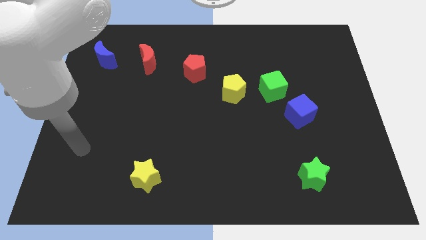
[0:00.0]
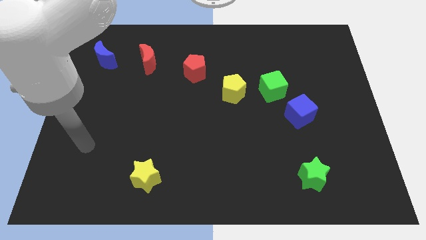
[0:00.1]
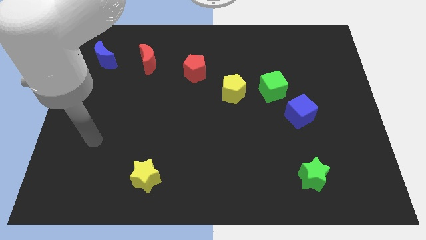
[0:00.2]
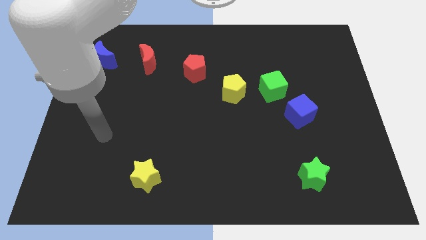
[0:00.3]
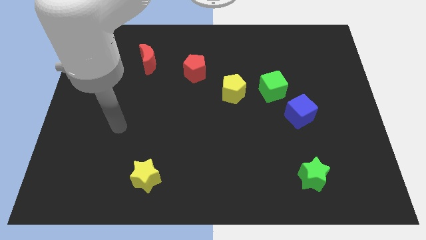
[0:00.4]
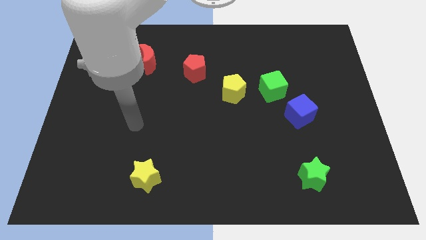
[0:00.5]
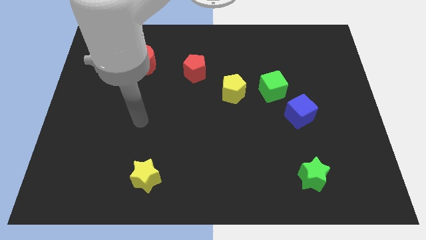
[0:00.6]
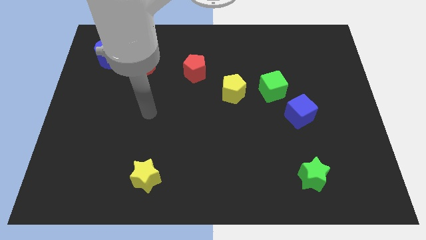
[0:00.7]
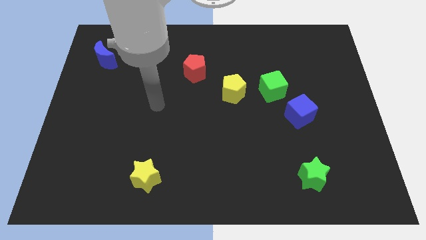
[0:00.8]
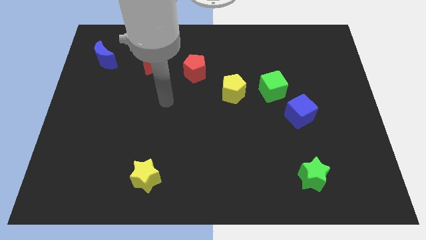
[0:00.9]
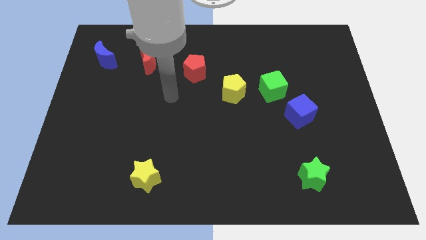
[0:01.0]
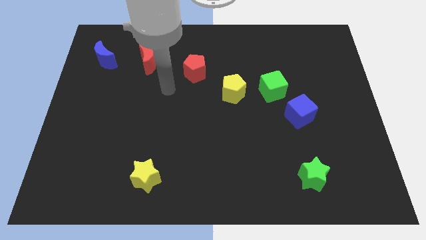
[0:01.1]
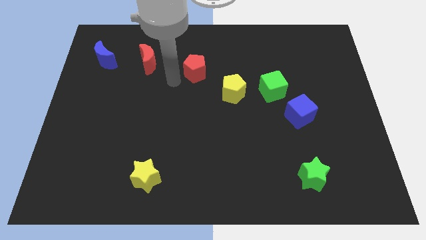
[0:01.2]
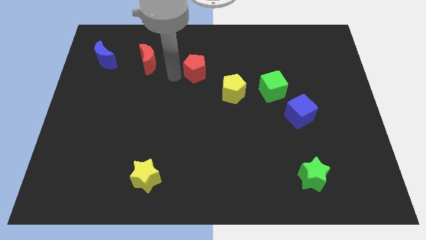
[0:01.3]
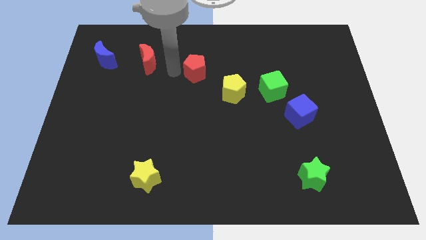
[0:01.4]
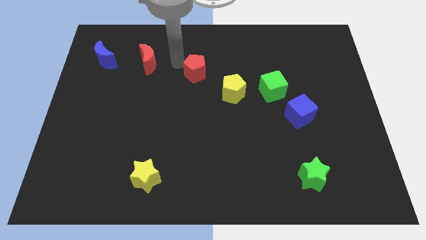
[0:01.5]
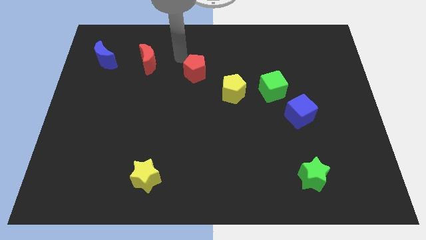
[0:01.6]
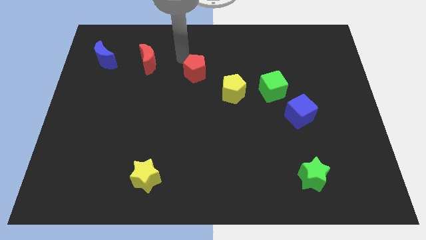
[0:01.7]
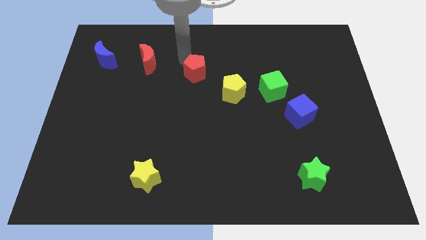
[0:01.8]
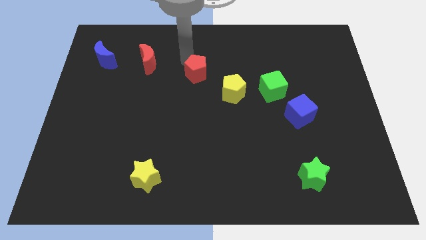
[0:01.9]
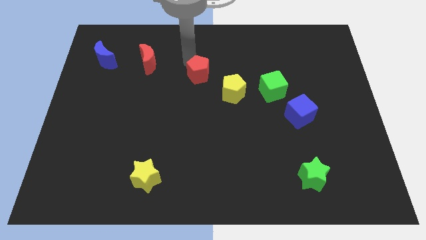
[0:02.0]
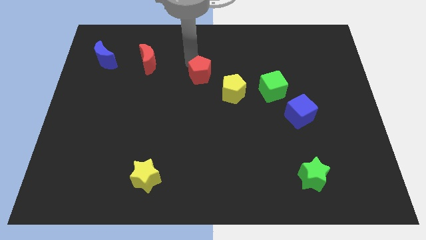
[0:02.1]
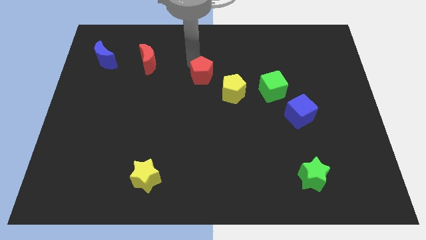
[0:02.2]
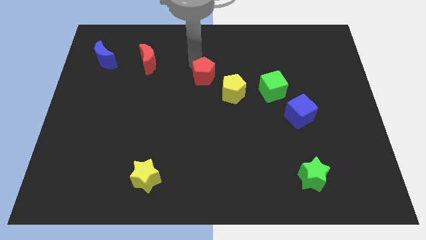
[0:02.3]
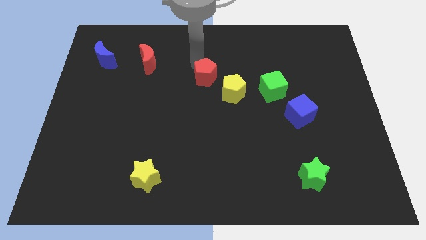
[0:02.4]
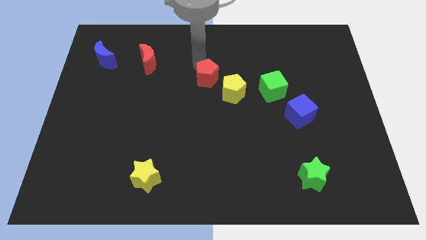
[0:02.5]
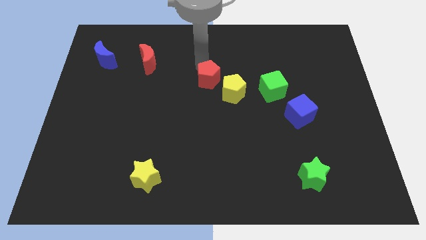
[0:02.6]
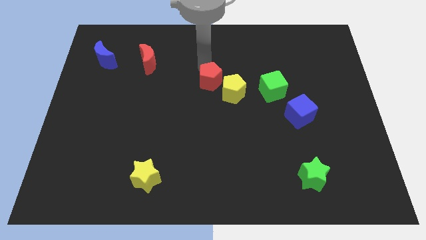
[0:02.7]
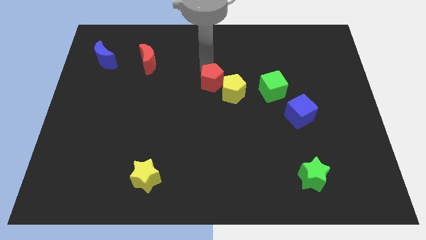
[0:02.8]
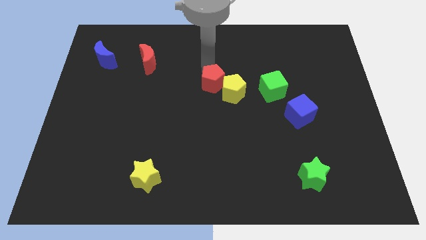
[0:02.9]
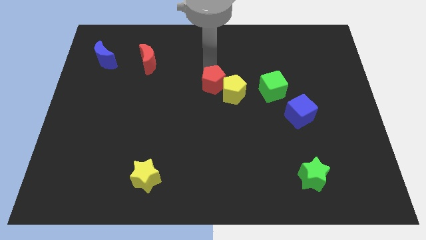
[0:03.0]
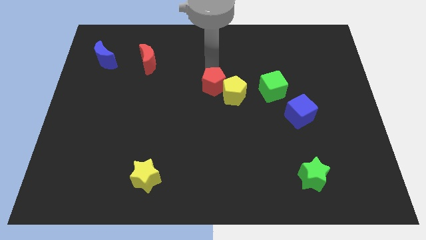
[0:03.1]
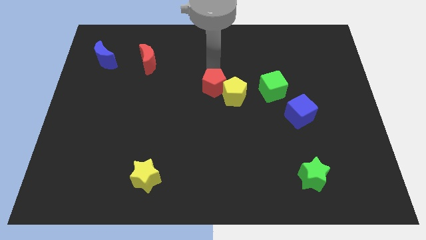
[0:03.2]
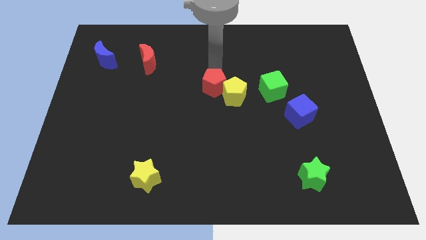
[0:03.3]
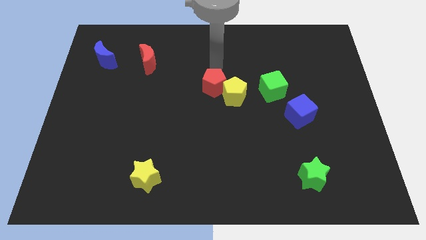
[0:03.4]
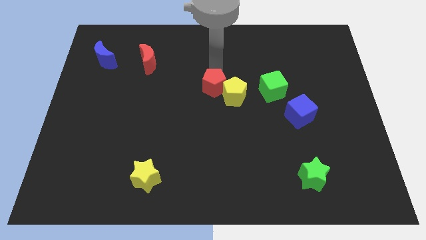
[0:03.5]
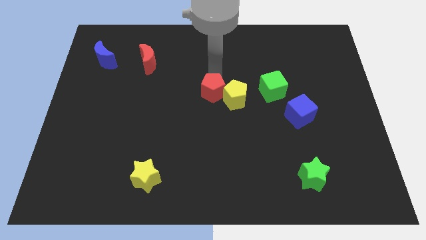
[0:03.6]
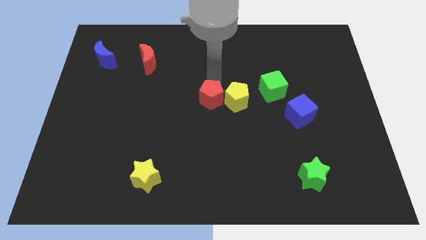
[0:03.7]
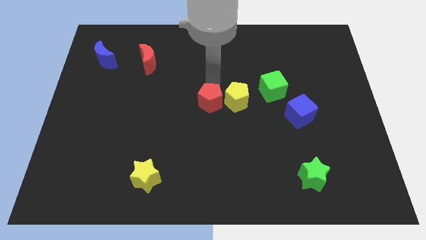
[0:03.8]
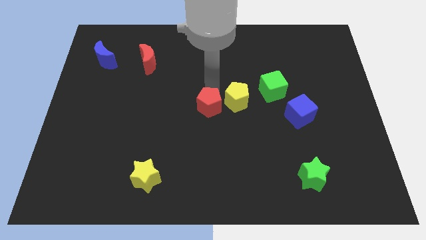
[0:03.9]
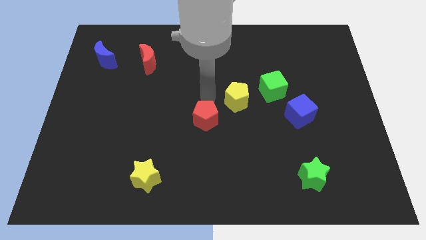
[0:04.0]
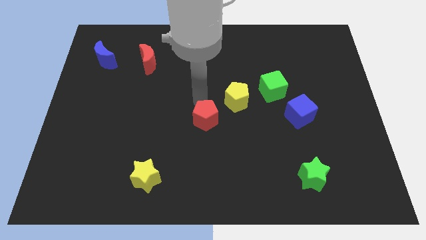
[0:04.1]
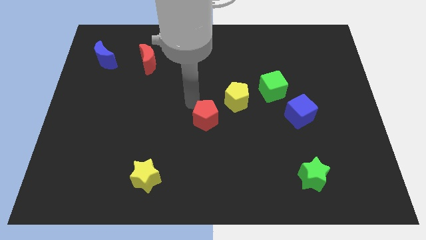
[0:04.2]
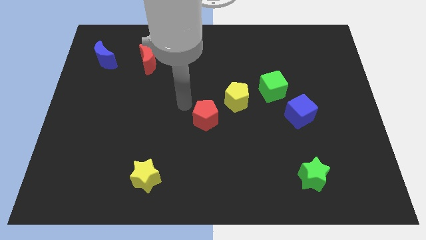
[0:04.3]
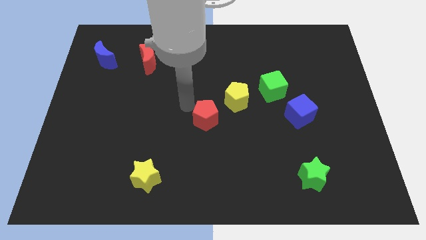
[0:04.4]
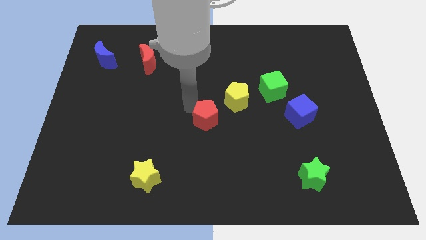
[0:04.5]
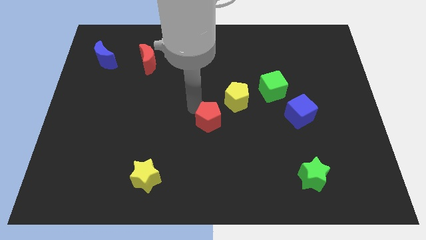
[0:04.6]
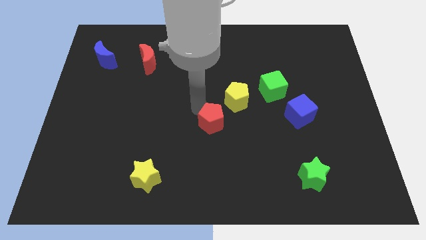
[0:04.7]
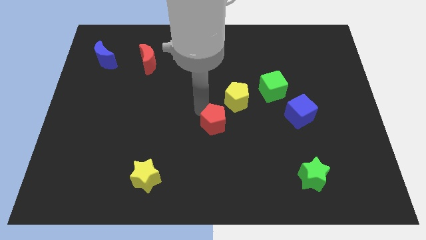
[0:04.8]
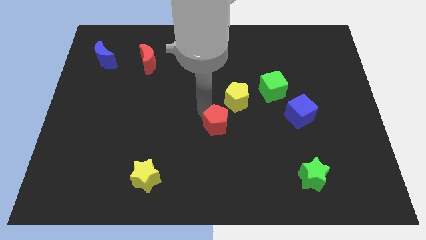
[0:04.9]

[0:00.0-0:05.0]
push the red pentagon below the yellow pentagon

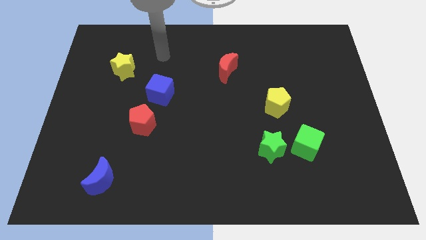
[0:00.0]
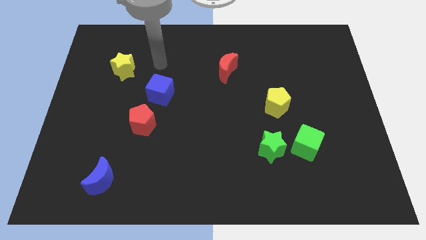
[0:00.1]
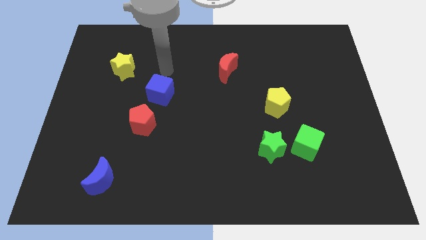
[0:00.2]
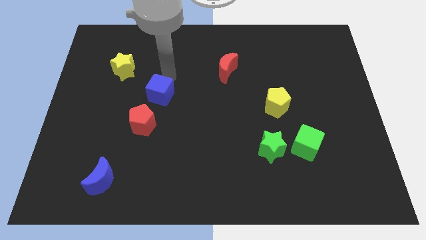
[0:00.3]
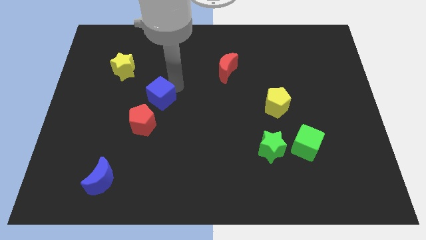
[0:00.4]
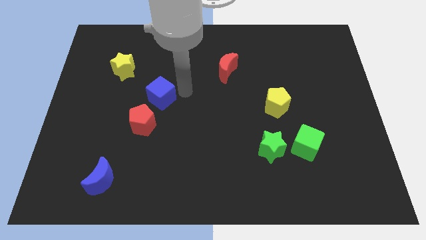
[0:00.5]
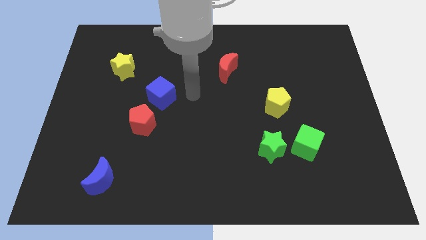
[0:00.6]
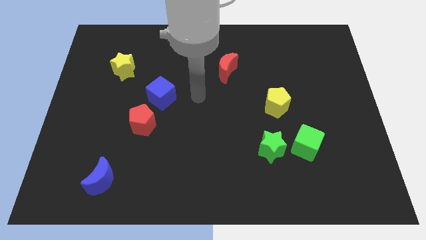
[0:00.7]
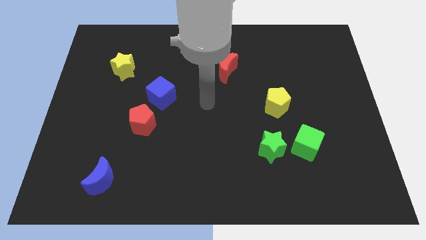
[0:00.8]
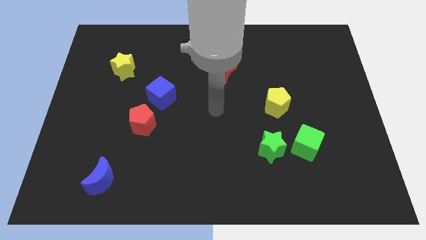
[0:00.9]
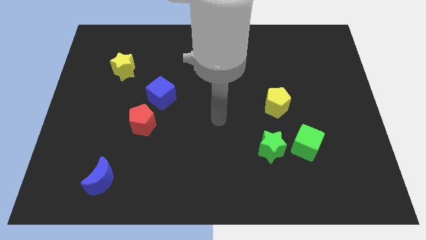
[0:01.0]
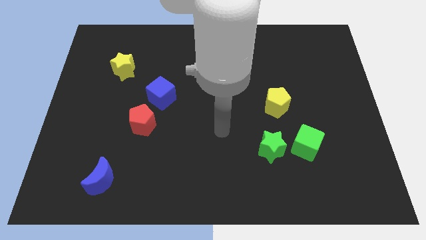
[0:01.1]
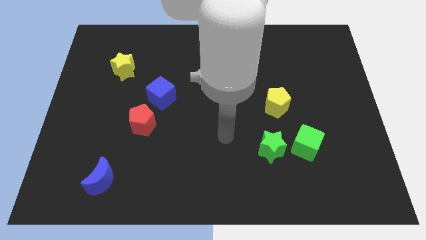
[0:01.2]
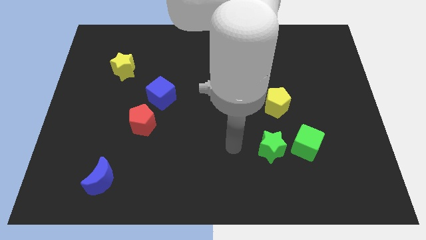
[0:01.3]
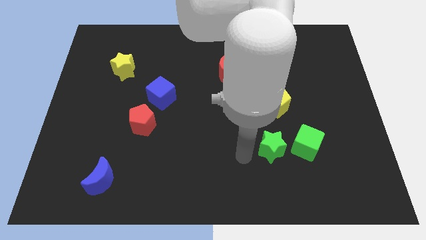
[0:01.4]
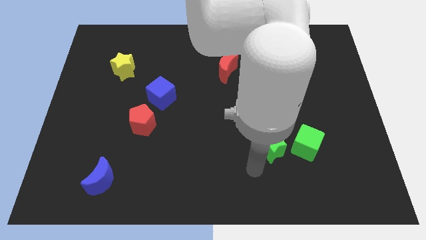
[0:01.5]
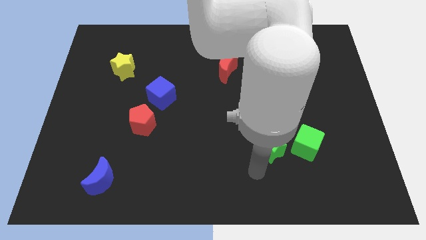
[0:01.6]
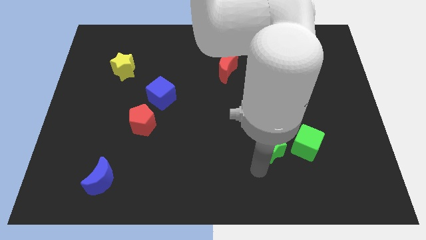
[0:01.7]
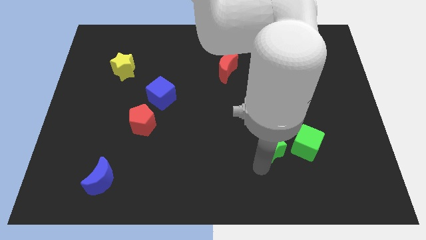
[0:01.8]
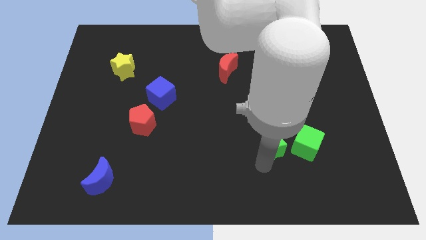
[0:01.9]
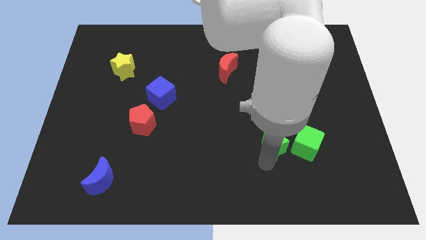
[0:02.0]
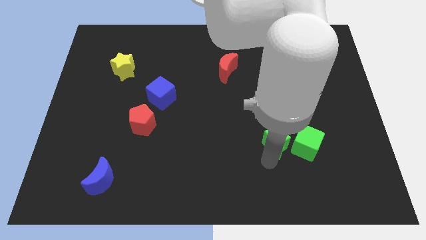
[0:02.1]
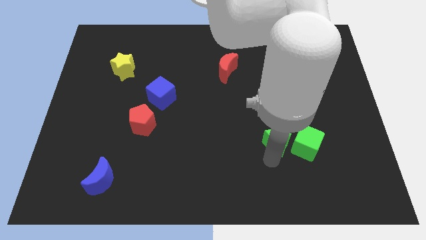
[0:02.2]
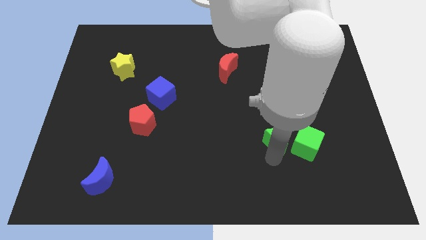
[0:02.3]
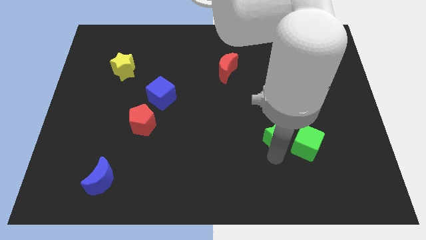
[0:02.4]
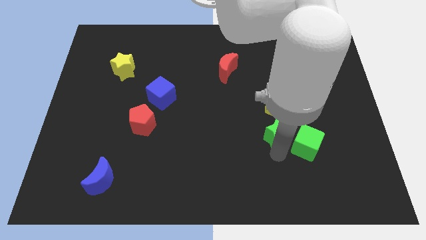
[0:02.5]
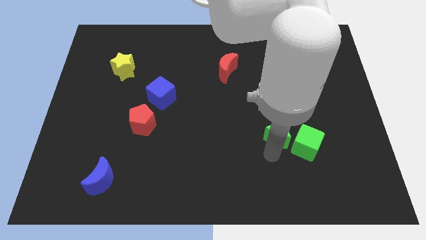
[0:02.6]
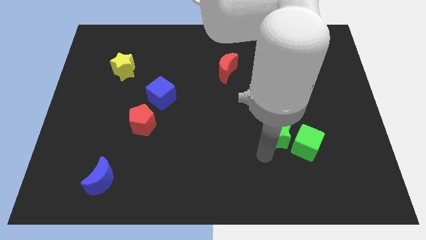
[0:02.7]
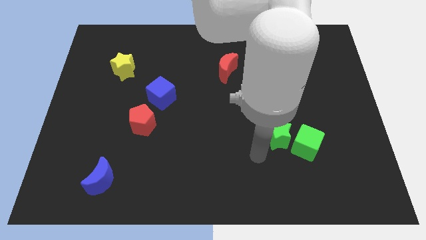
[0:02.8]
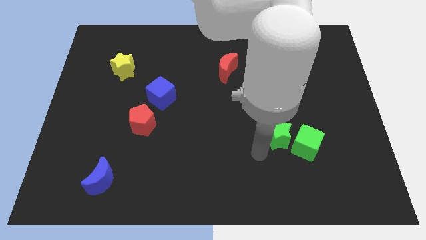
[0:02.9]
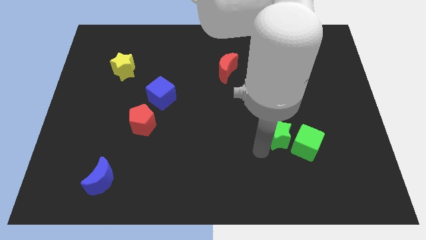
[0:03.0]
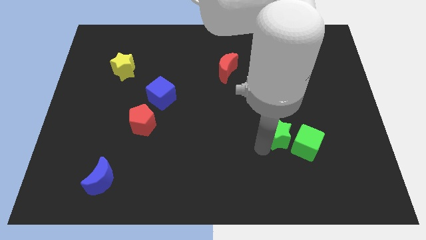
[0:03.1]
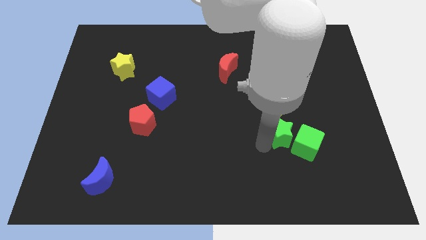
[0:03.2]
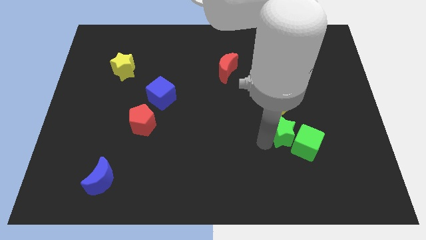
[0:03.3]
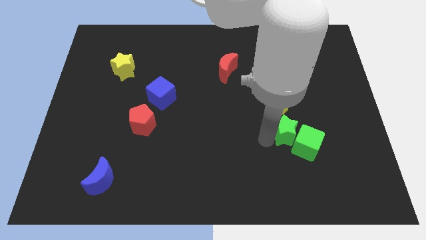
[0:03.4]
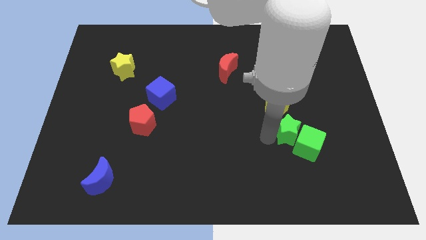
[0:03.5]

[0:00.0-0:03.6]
put the green star to the top of the green cube
